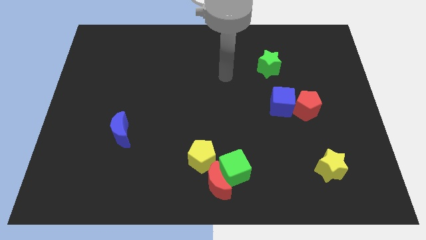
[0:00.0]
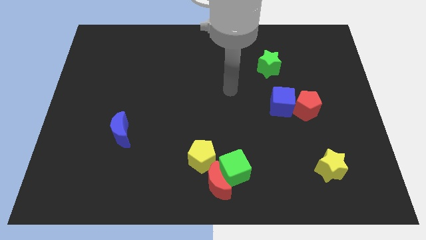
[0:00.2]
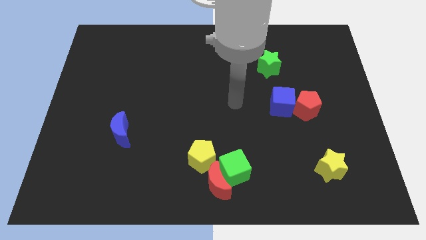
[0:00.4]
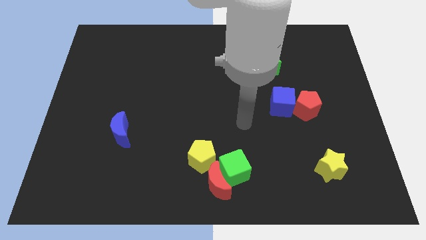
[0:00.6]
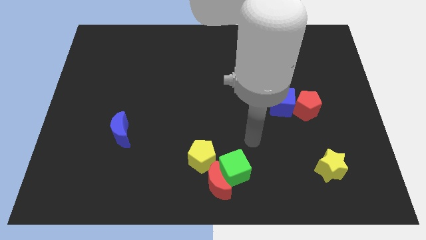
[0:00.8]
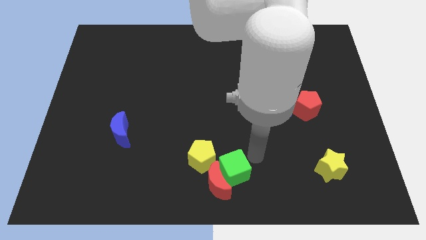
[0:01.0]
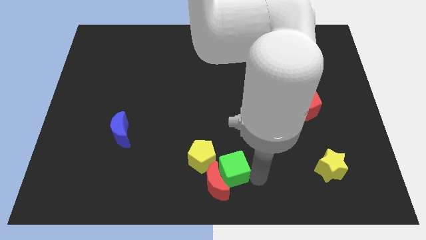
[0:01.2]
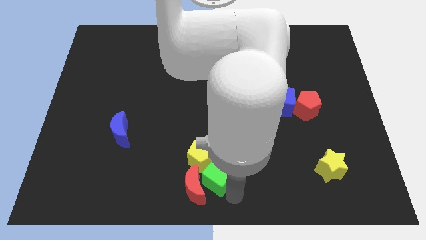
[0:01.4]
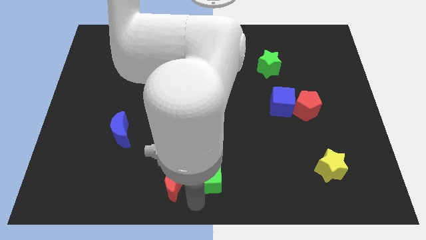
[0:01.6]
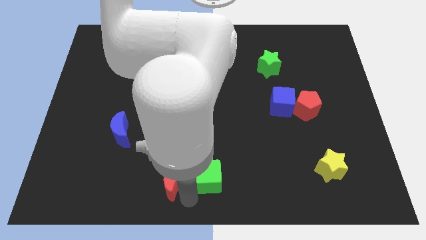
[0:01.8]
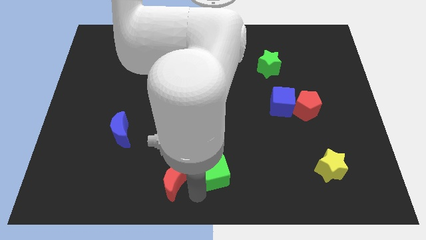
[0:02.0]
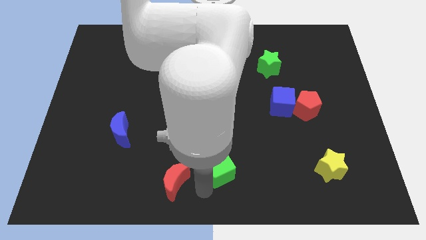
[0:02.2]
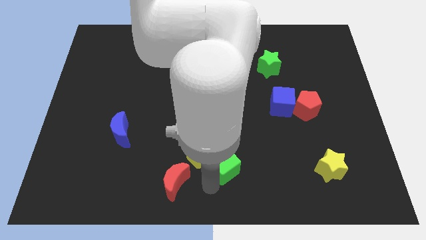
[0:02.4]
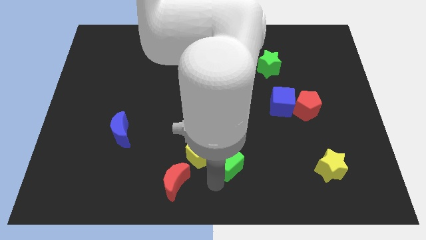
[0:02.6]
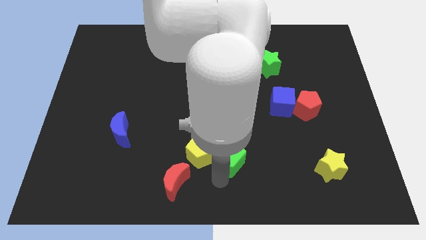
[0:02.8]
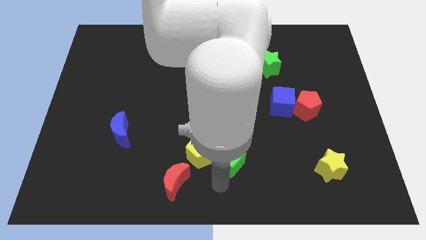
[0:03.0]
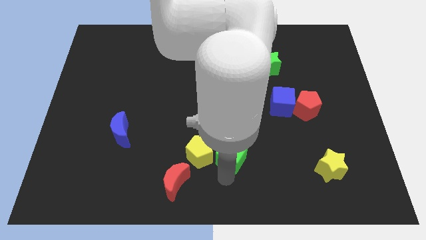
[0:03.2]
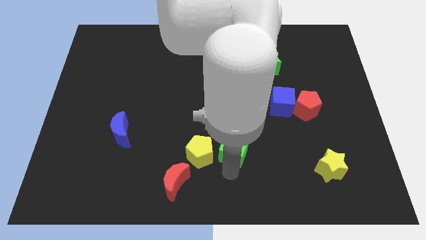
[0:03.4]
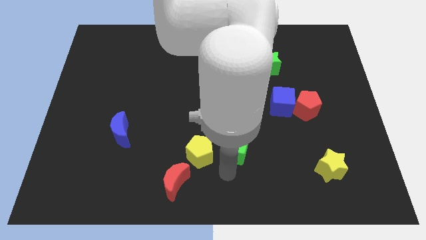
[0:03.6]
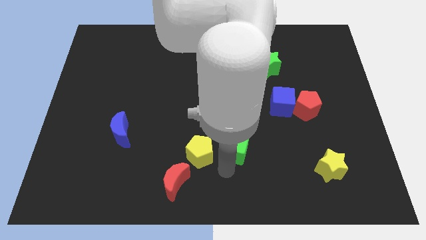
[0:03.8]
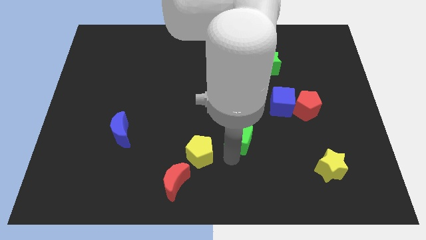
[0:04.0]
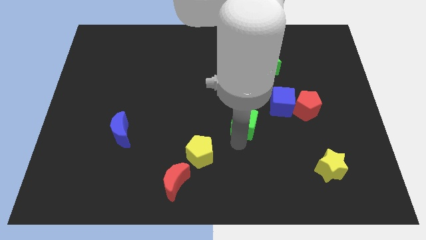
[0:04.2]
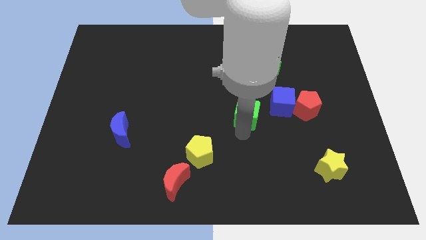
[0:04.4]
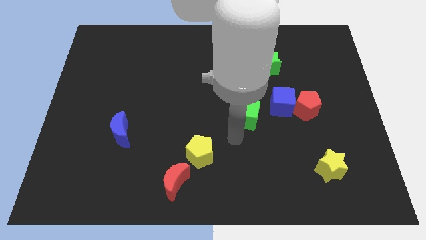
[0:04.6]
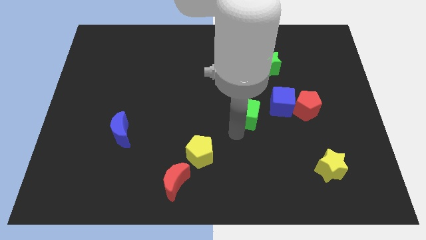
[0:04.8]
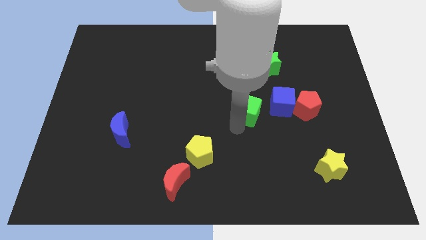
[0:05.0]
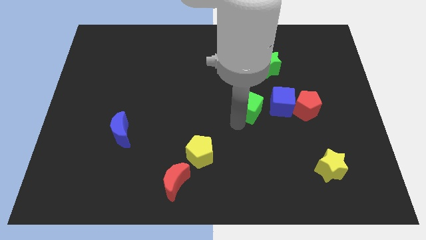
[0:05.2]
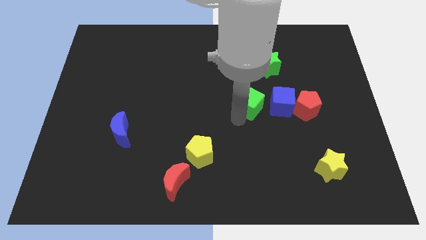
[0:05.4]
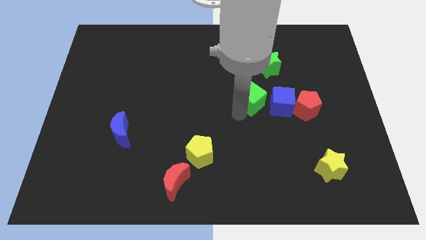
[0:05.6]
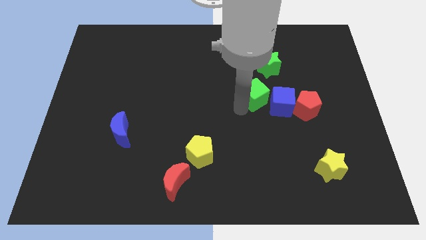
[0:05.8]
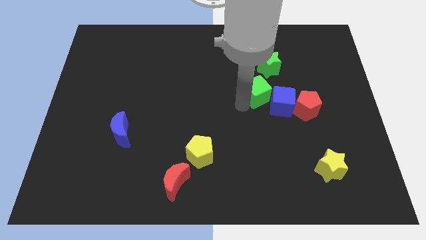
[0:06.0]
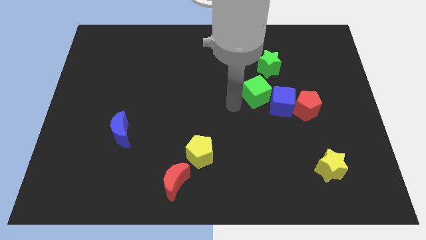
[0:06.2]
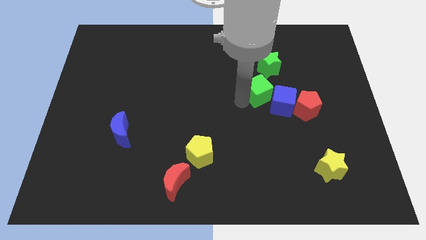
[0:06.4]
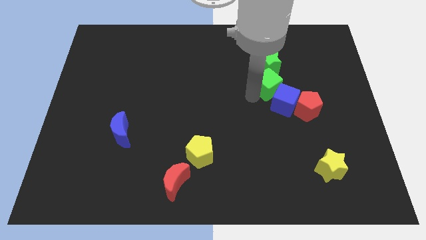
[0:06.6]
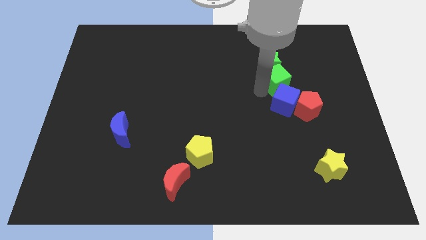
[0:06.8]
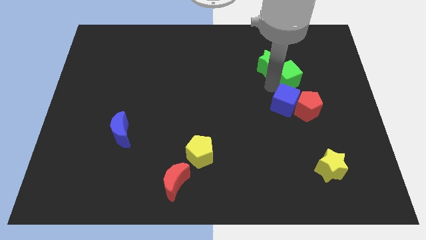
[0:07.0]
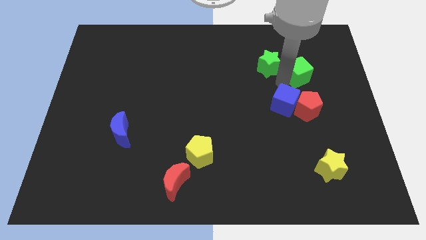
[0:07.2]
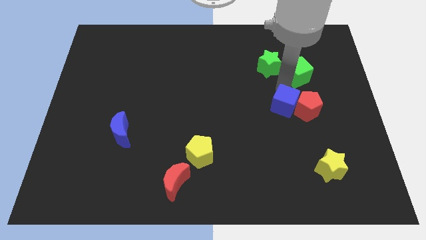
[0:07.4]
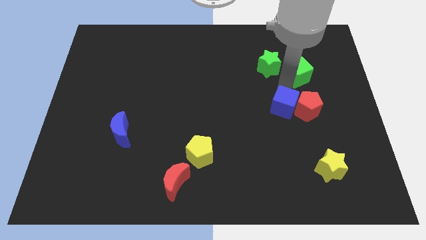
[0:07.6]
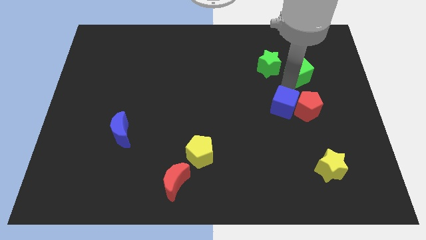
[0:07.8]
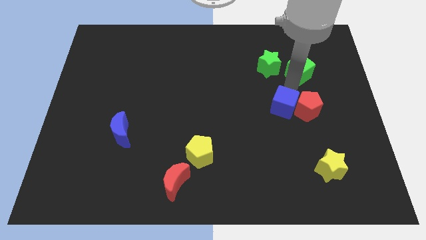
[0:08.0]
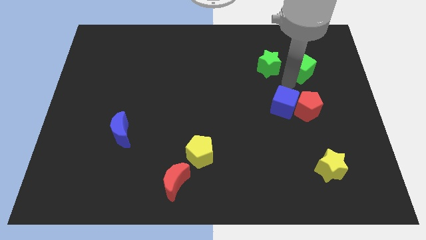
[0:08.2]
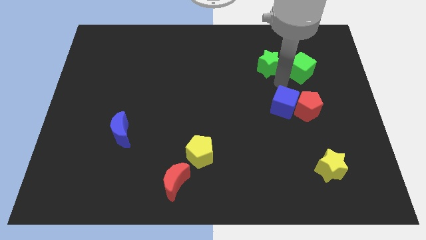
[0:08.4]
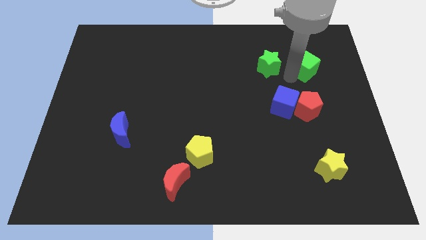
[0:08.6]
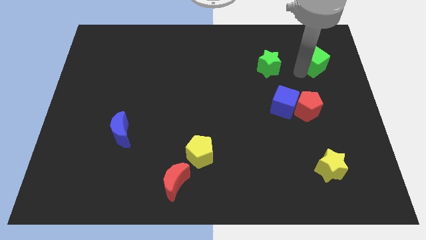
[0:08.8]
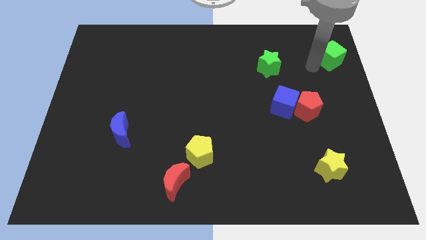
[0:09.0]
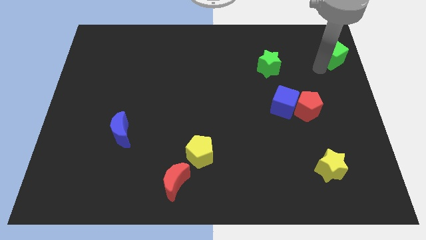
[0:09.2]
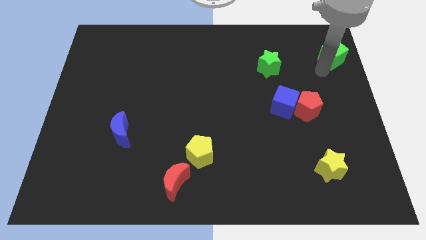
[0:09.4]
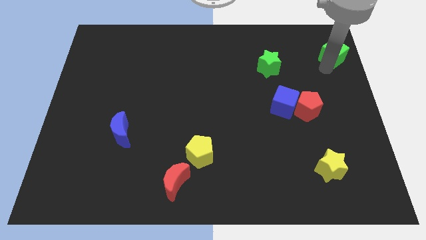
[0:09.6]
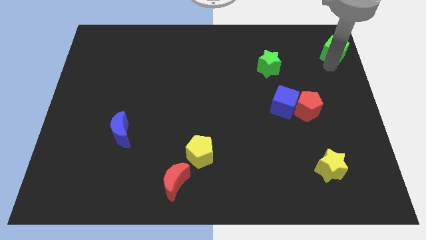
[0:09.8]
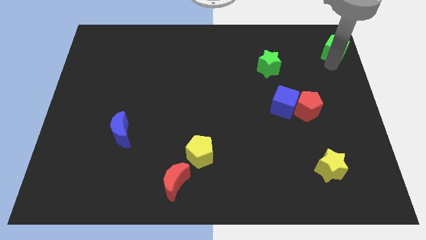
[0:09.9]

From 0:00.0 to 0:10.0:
move the green cube to the top right

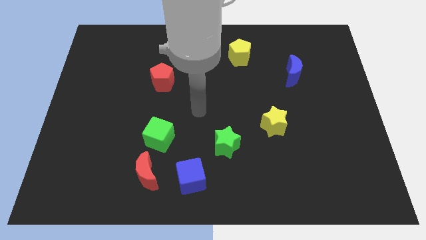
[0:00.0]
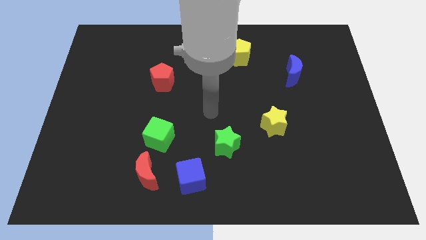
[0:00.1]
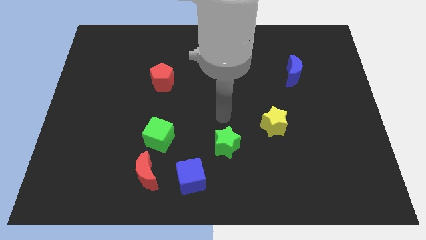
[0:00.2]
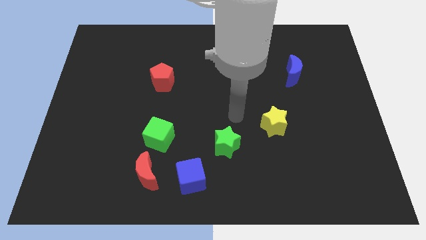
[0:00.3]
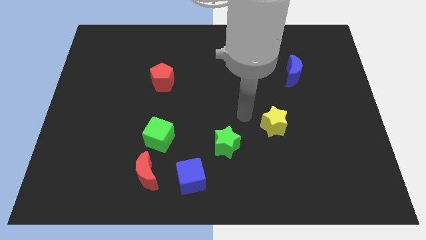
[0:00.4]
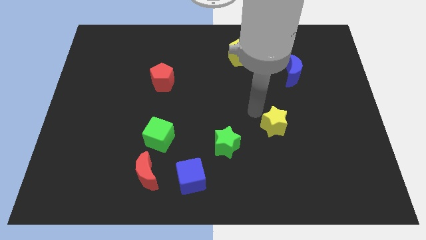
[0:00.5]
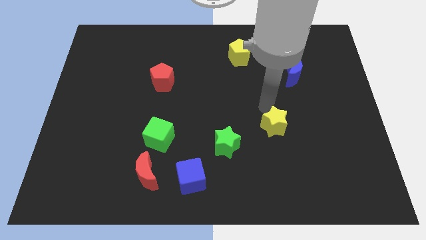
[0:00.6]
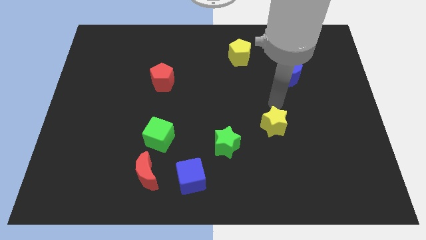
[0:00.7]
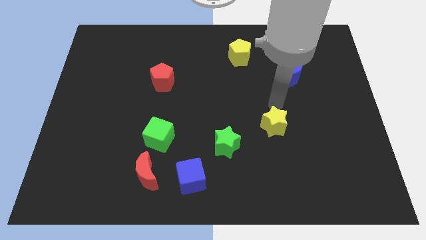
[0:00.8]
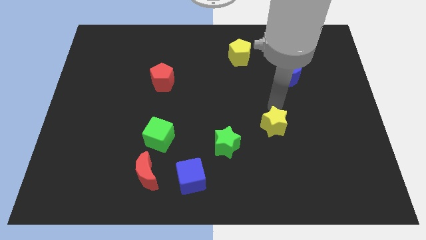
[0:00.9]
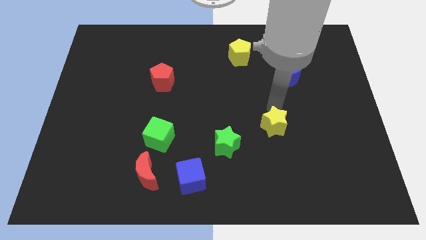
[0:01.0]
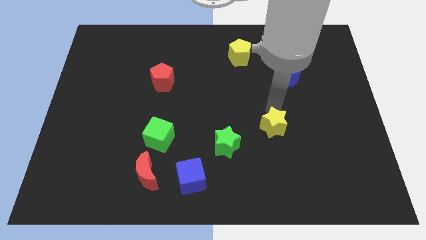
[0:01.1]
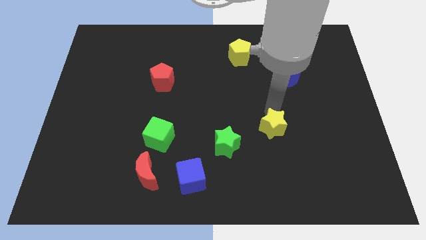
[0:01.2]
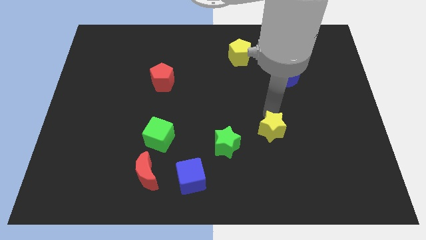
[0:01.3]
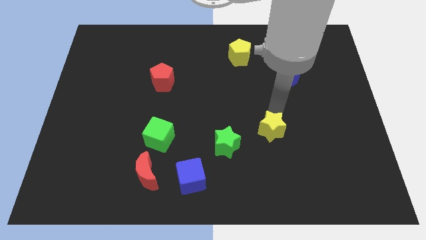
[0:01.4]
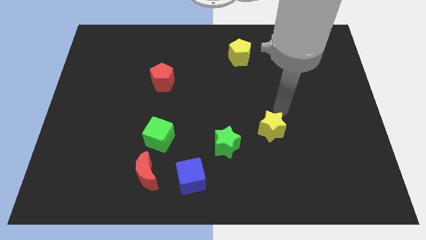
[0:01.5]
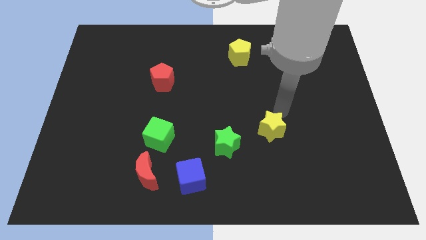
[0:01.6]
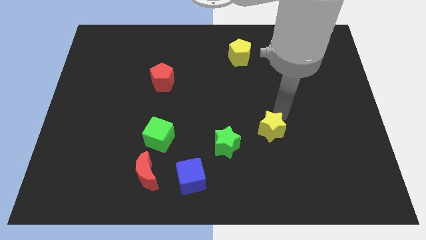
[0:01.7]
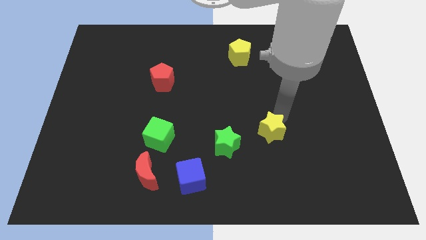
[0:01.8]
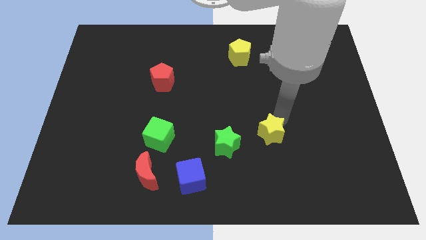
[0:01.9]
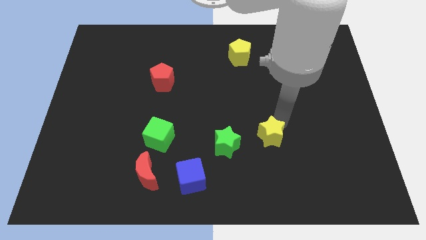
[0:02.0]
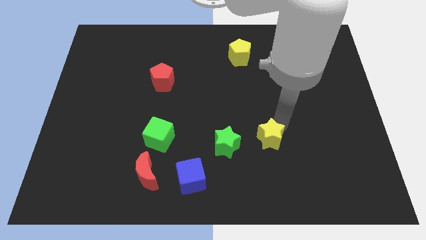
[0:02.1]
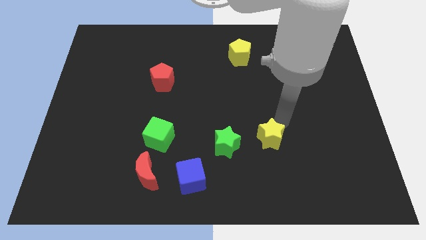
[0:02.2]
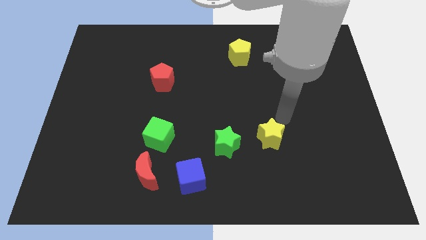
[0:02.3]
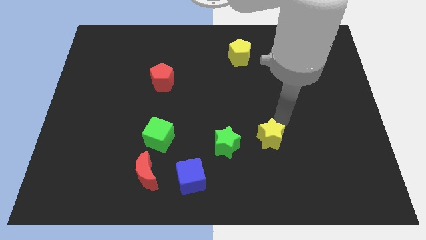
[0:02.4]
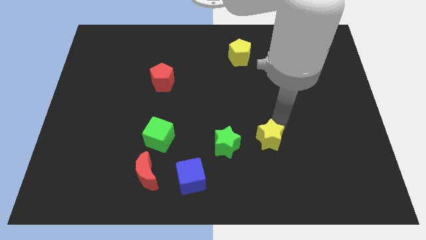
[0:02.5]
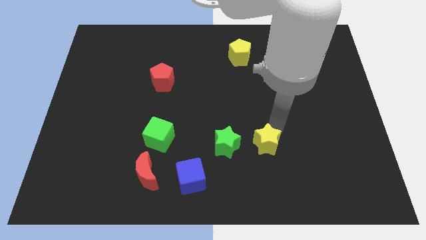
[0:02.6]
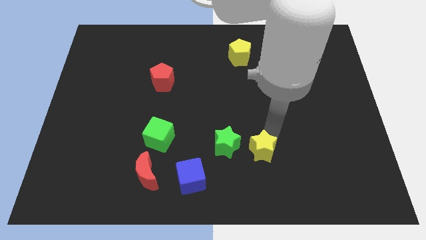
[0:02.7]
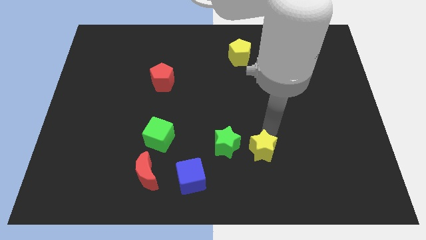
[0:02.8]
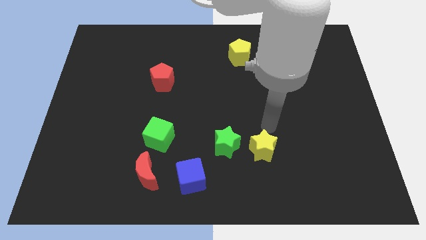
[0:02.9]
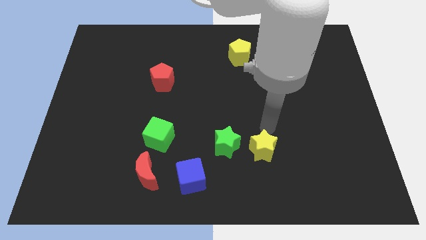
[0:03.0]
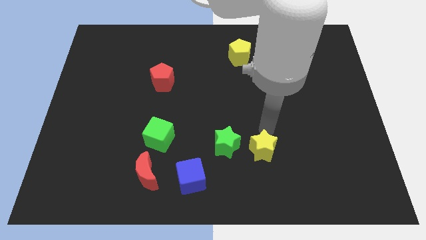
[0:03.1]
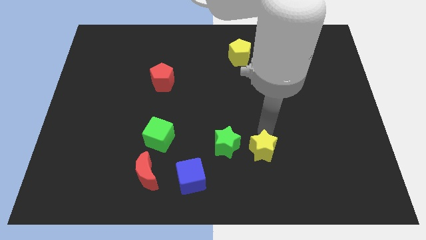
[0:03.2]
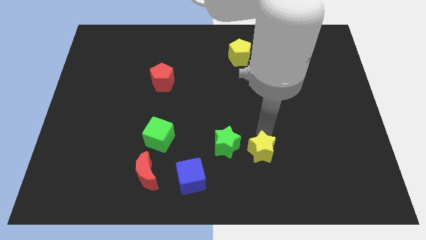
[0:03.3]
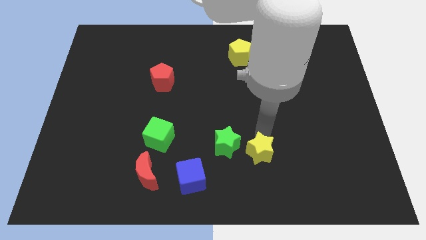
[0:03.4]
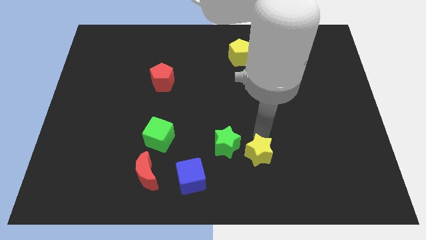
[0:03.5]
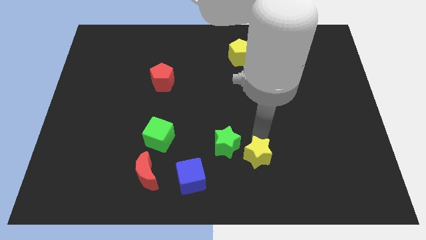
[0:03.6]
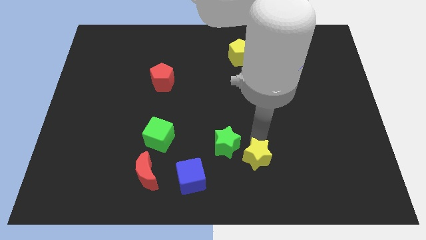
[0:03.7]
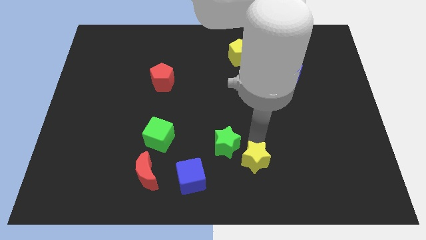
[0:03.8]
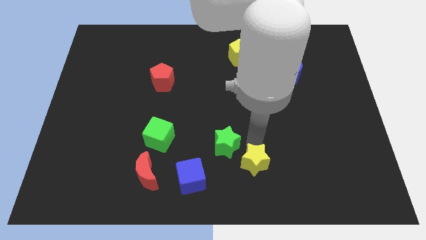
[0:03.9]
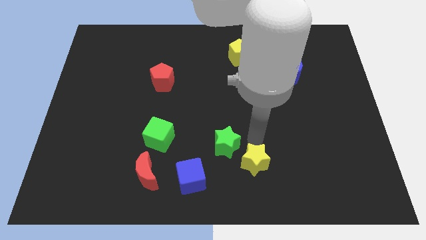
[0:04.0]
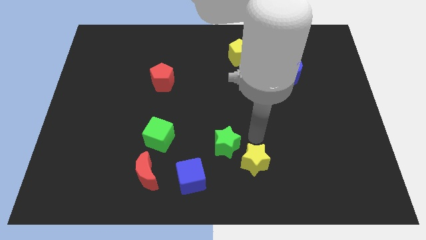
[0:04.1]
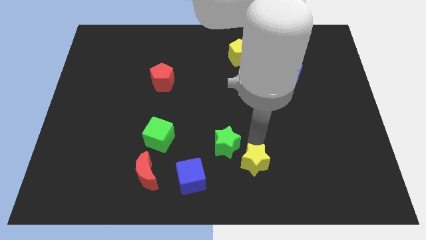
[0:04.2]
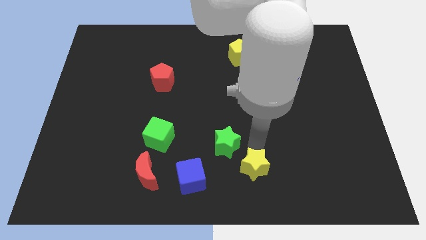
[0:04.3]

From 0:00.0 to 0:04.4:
slide the yellow star to the bottom
